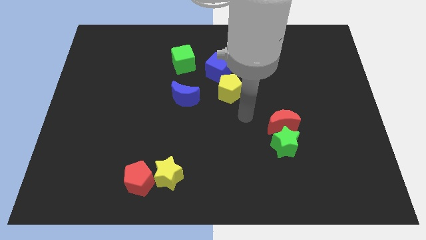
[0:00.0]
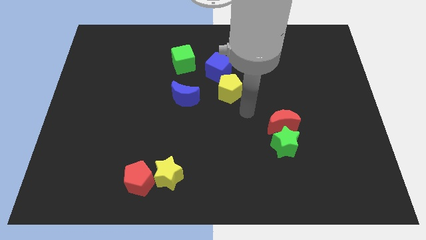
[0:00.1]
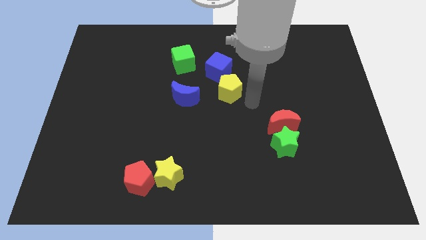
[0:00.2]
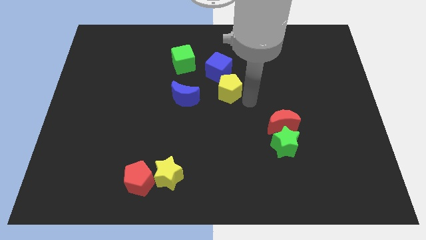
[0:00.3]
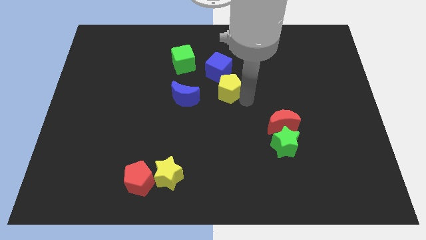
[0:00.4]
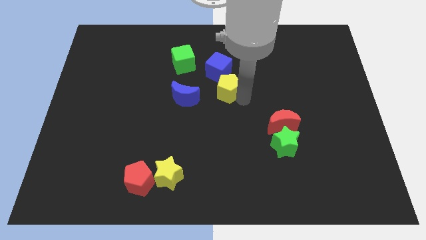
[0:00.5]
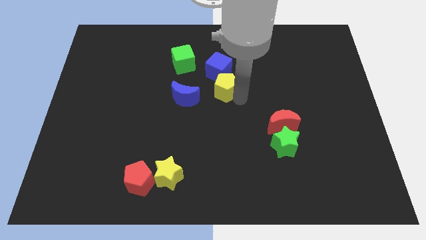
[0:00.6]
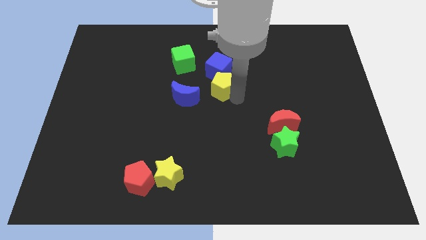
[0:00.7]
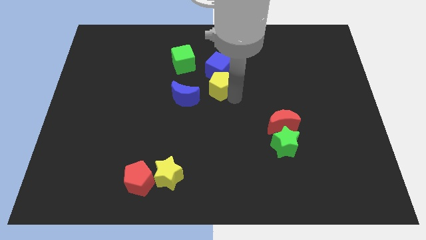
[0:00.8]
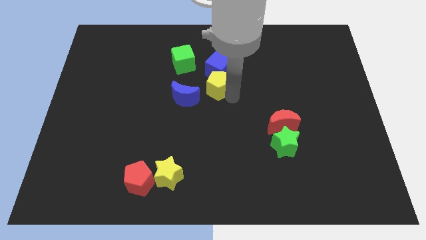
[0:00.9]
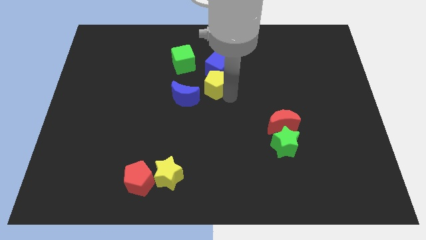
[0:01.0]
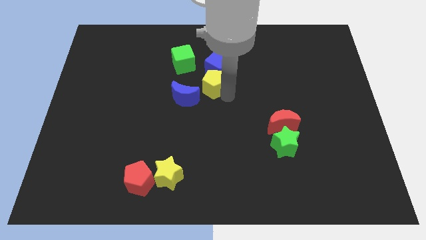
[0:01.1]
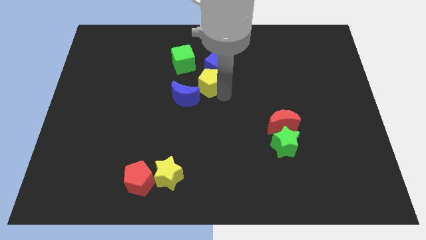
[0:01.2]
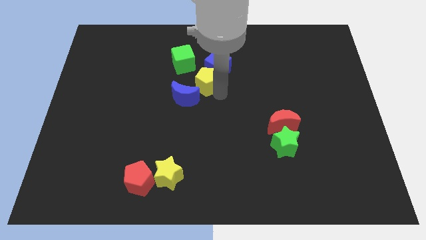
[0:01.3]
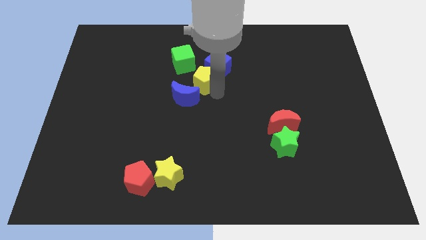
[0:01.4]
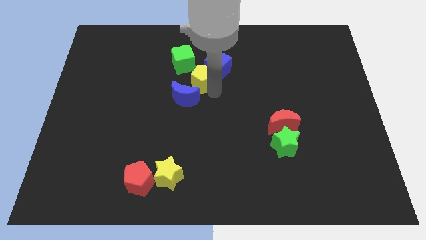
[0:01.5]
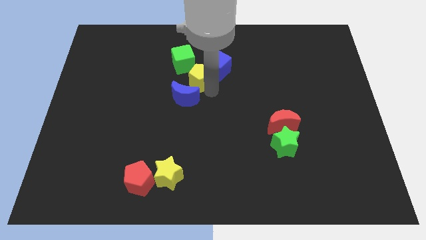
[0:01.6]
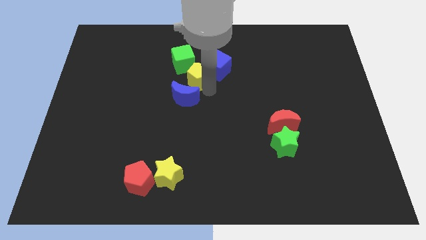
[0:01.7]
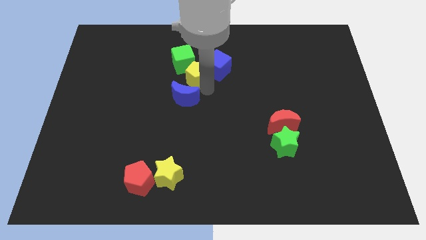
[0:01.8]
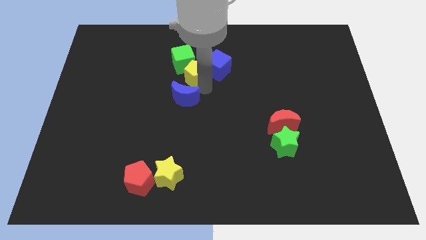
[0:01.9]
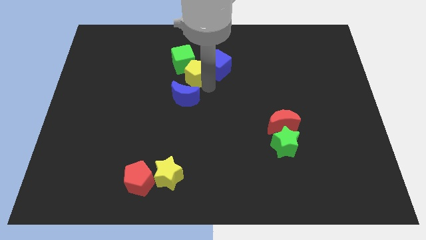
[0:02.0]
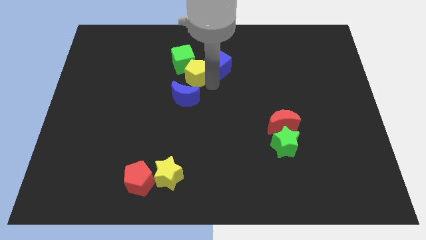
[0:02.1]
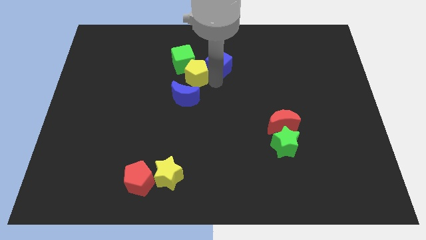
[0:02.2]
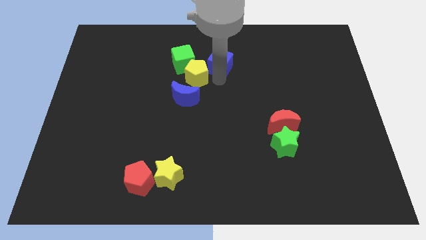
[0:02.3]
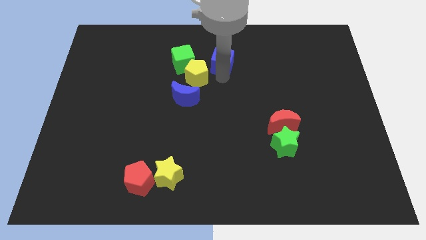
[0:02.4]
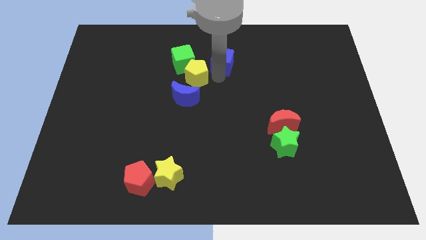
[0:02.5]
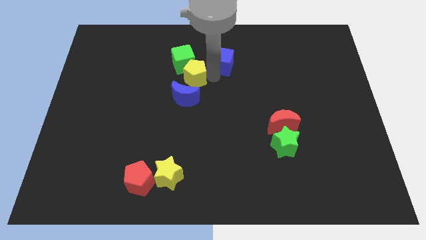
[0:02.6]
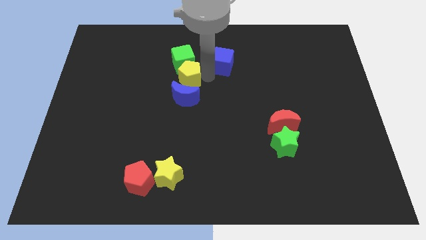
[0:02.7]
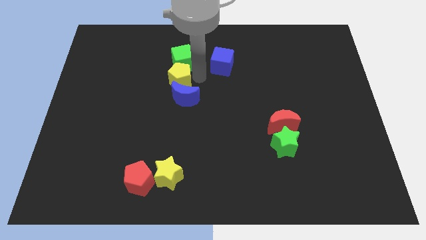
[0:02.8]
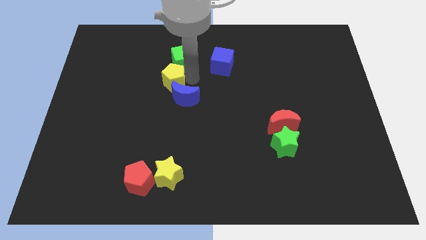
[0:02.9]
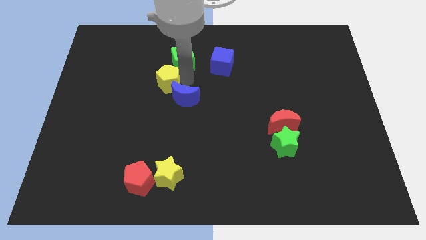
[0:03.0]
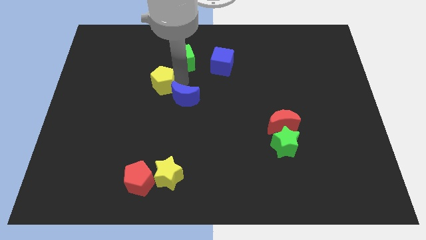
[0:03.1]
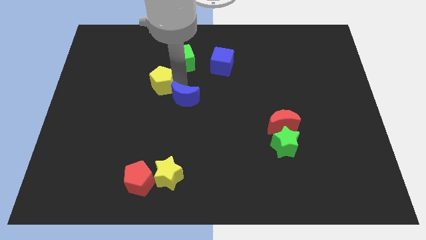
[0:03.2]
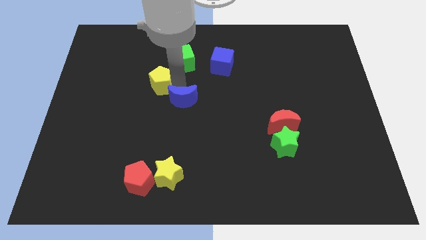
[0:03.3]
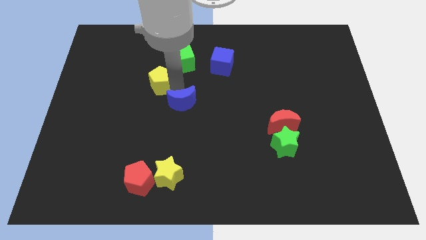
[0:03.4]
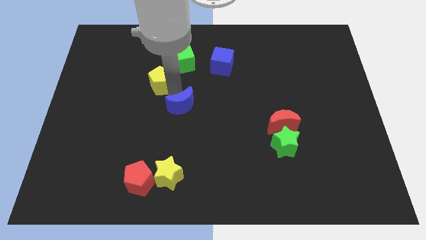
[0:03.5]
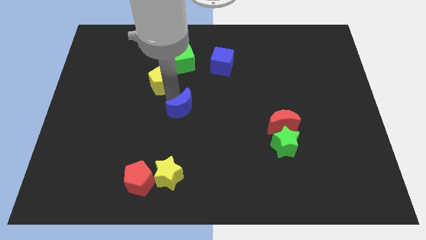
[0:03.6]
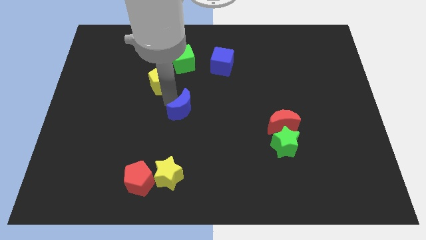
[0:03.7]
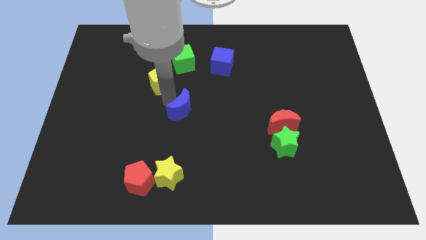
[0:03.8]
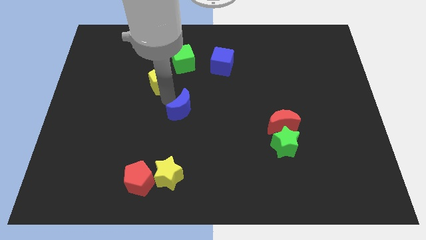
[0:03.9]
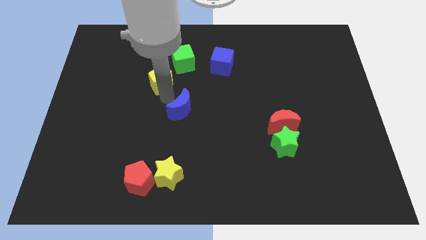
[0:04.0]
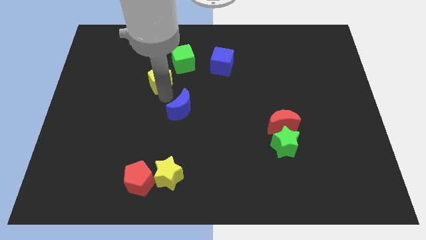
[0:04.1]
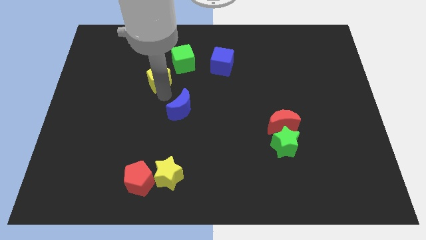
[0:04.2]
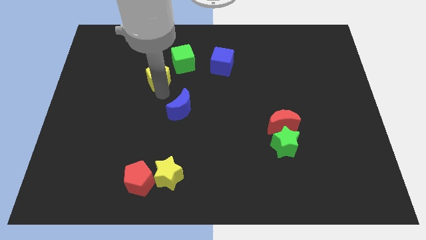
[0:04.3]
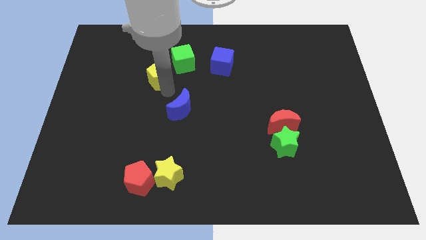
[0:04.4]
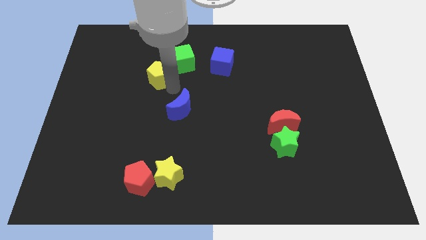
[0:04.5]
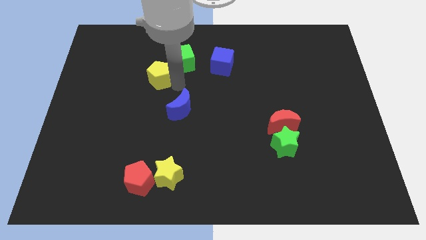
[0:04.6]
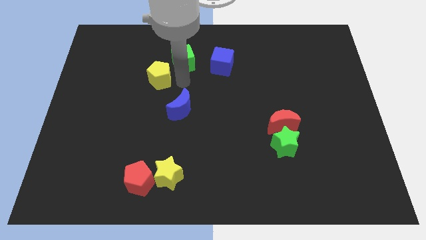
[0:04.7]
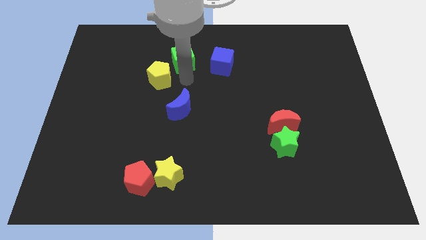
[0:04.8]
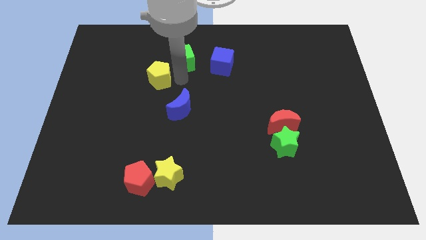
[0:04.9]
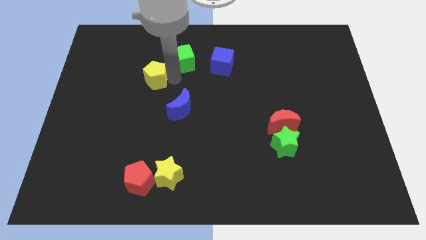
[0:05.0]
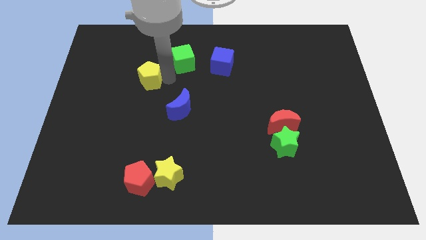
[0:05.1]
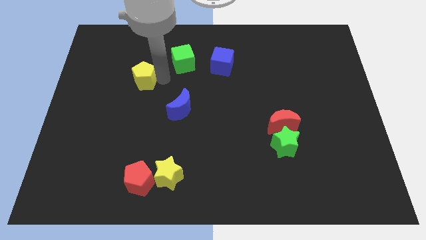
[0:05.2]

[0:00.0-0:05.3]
move the yellow pentagon left

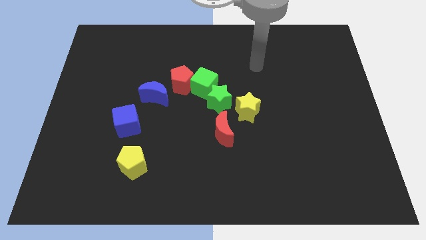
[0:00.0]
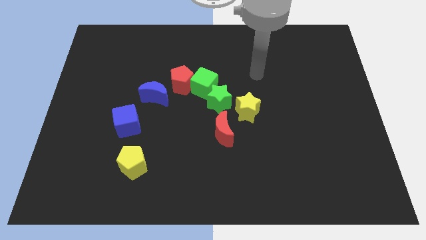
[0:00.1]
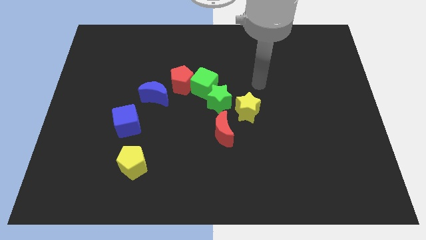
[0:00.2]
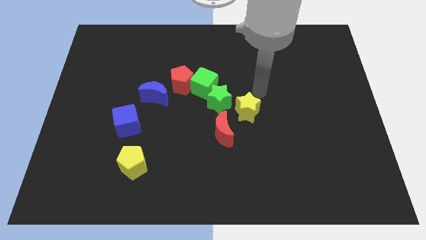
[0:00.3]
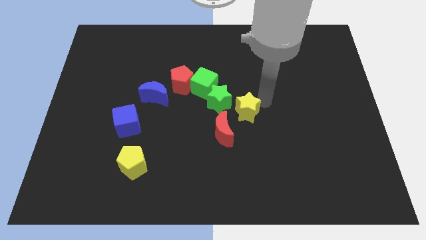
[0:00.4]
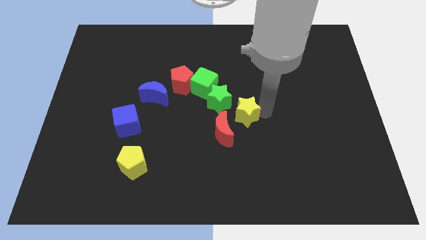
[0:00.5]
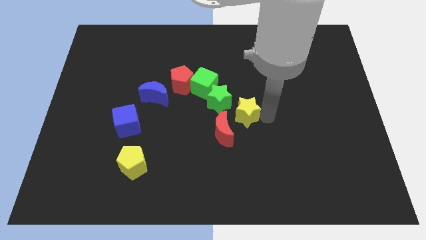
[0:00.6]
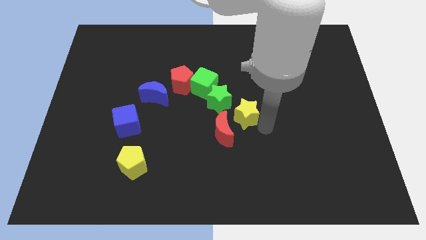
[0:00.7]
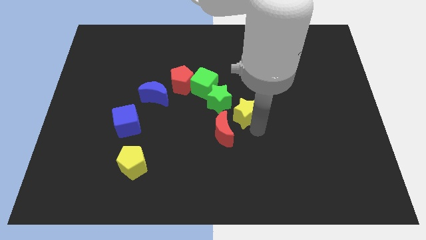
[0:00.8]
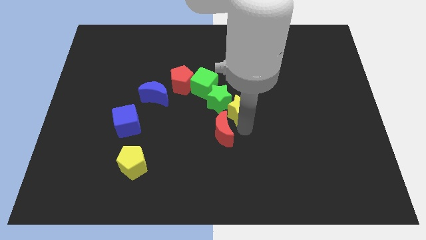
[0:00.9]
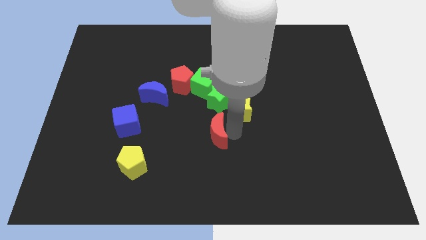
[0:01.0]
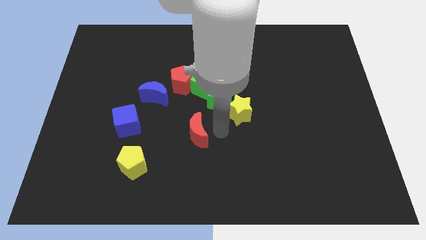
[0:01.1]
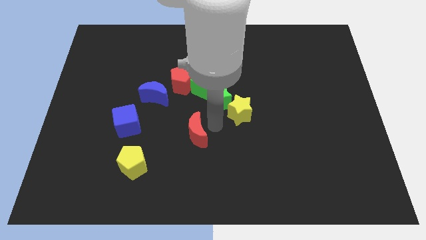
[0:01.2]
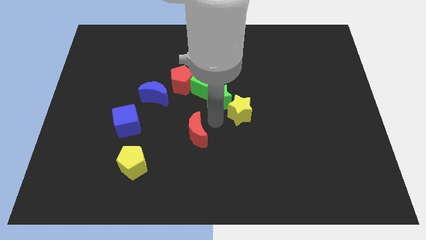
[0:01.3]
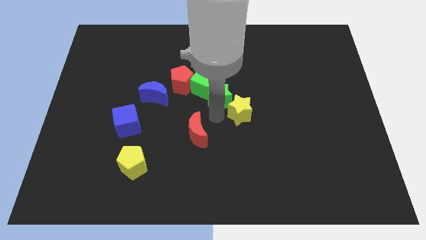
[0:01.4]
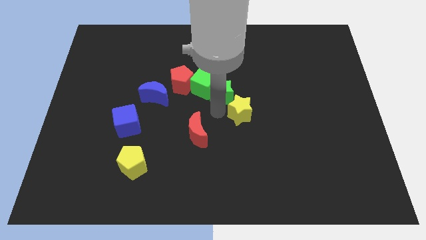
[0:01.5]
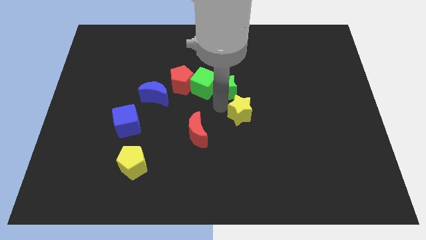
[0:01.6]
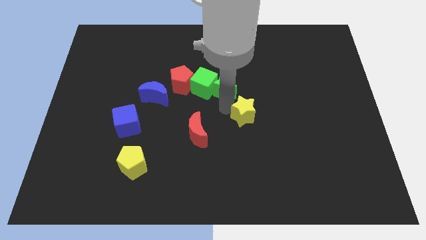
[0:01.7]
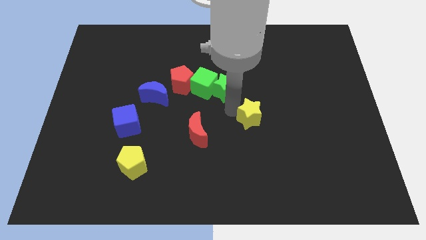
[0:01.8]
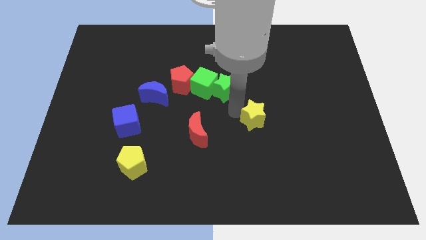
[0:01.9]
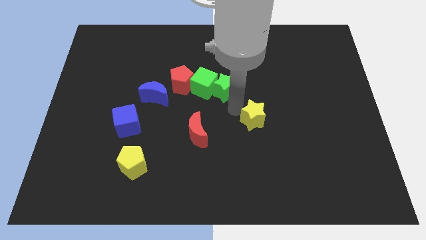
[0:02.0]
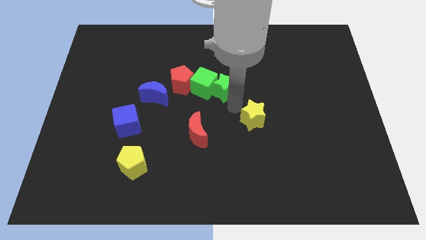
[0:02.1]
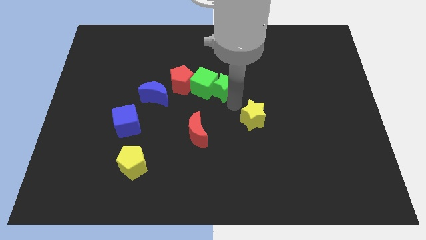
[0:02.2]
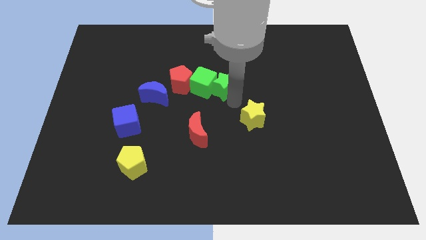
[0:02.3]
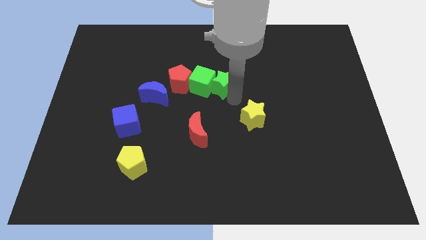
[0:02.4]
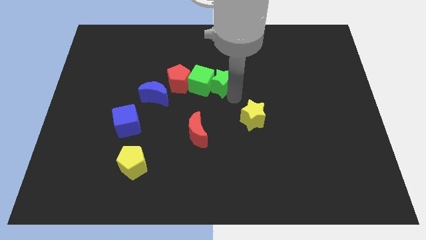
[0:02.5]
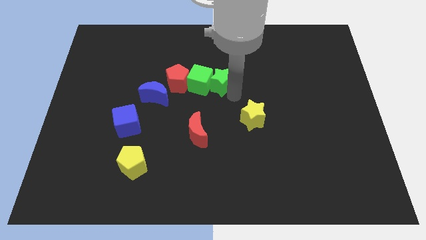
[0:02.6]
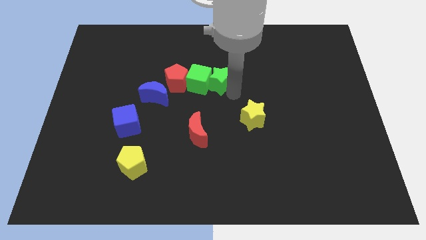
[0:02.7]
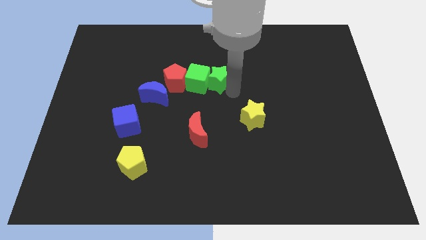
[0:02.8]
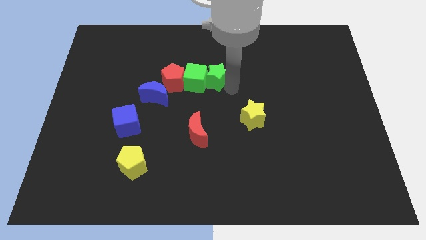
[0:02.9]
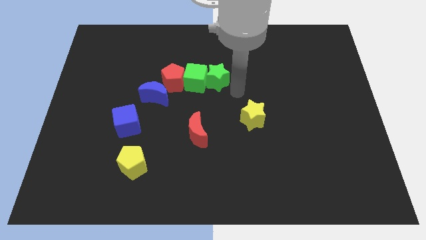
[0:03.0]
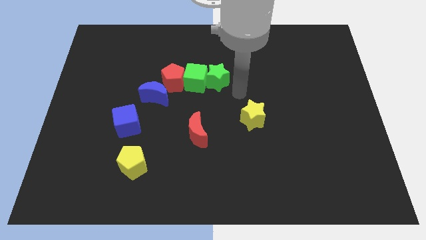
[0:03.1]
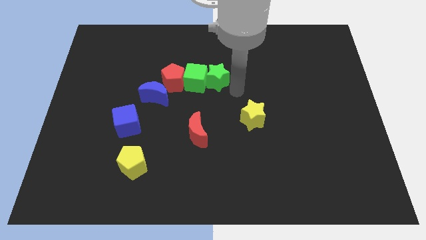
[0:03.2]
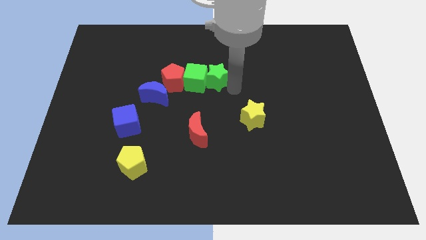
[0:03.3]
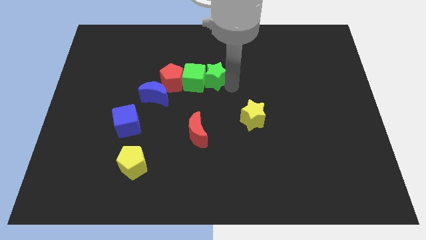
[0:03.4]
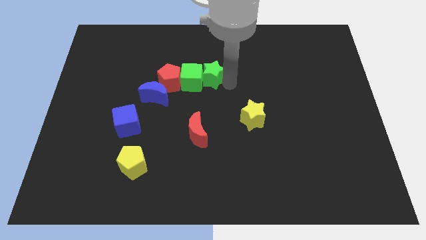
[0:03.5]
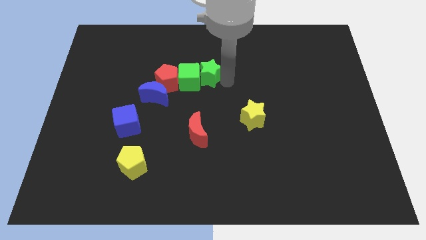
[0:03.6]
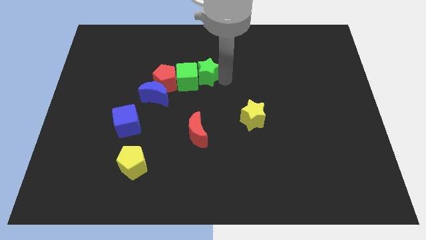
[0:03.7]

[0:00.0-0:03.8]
slide the green star diagonally upwards and to the left somewhat
